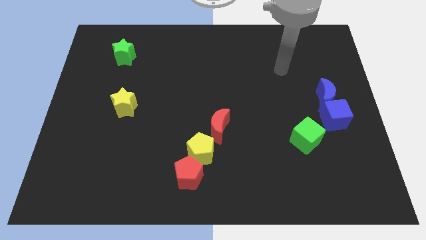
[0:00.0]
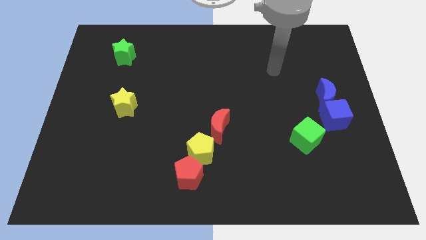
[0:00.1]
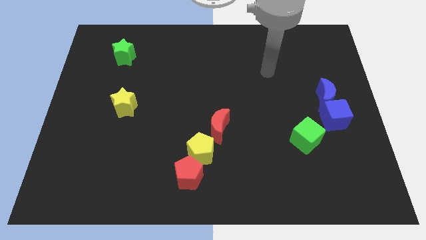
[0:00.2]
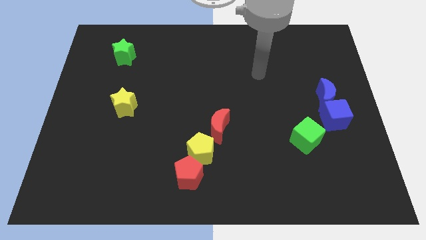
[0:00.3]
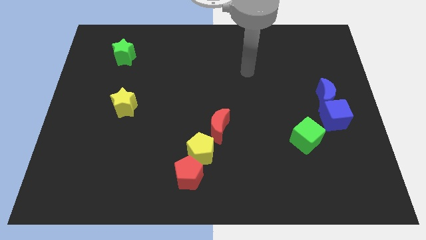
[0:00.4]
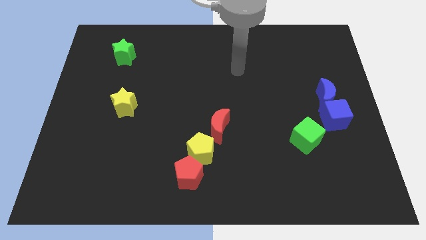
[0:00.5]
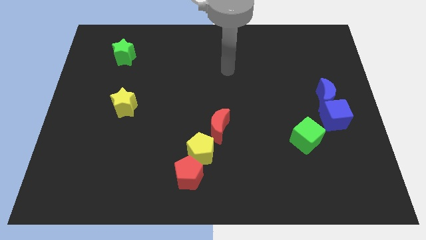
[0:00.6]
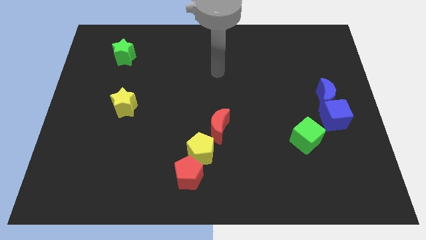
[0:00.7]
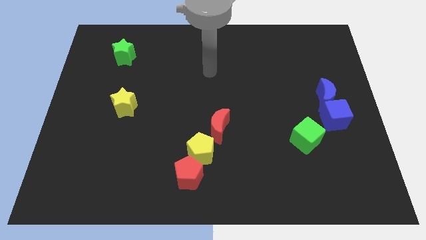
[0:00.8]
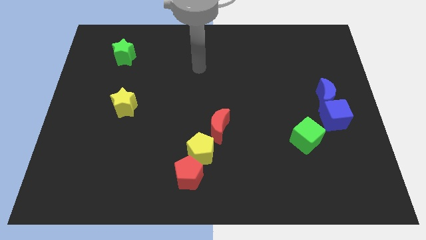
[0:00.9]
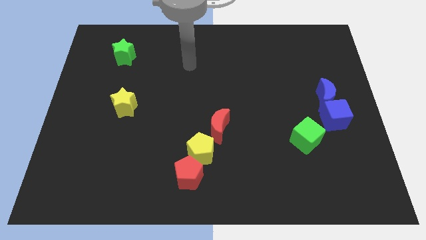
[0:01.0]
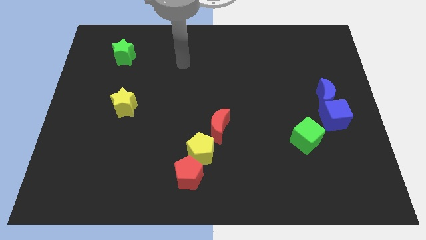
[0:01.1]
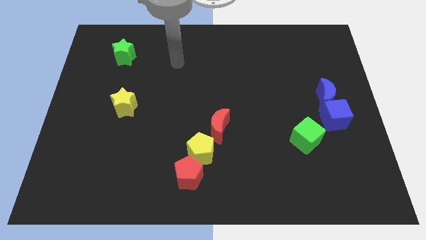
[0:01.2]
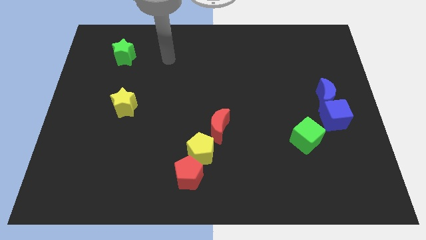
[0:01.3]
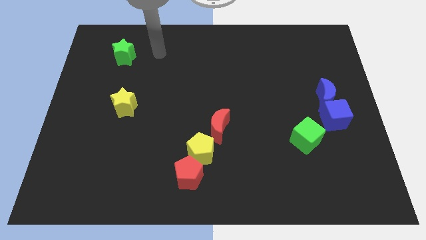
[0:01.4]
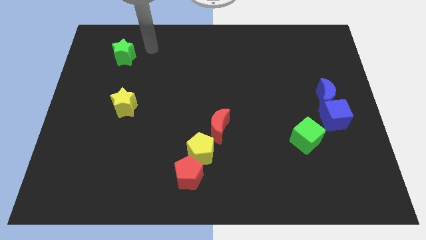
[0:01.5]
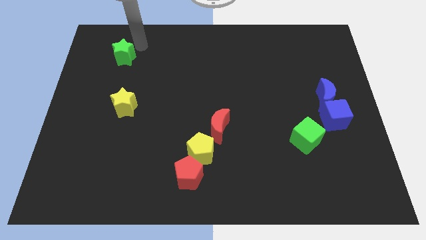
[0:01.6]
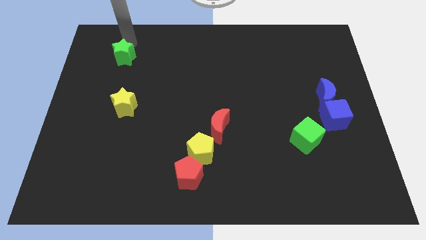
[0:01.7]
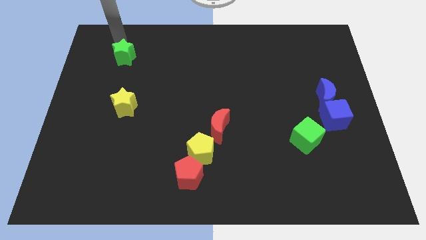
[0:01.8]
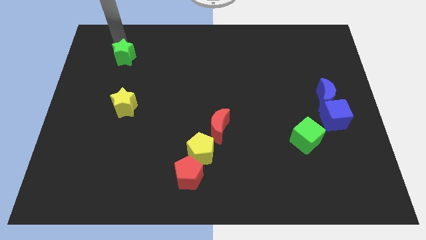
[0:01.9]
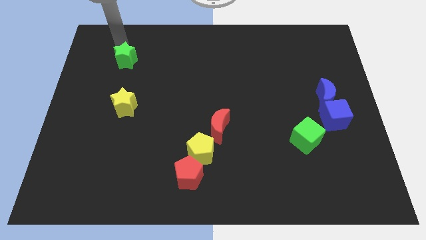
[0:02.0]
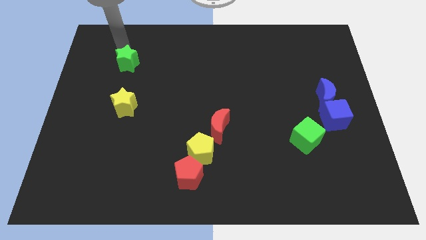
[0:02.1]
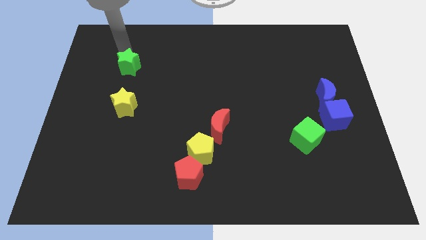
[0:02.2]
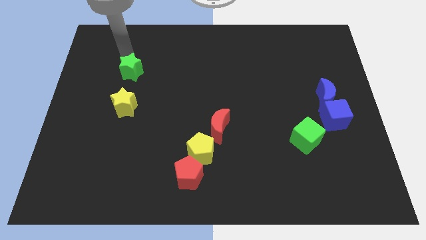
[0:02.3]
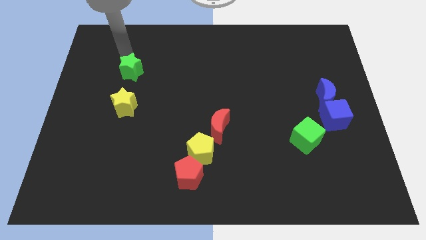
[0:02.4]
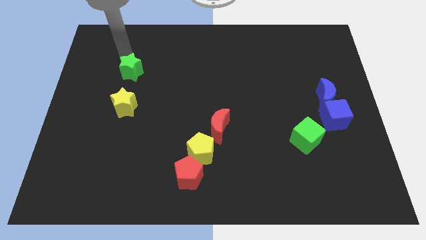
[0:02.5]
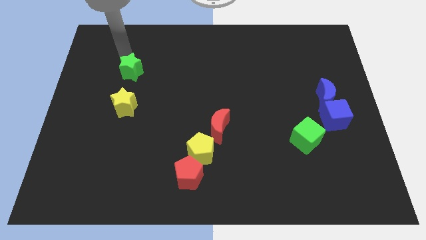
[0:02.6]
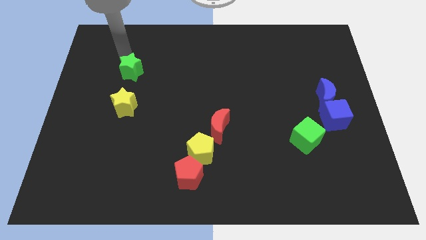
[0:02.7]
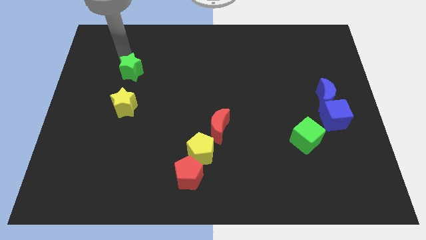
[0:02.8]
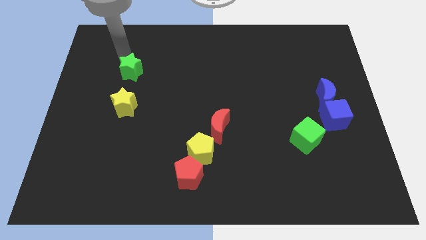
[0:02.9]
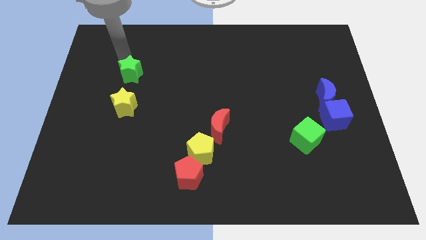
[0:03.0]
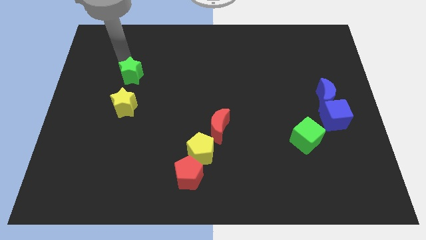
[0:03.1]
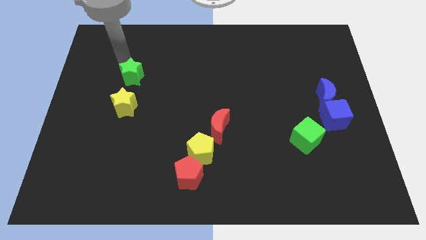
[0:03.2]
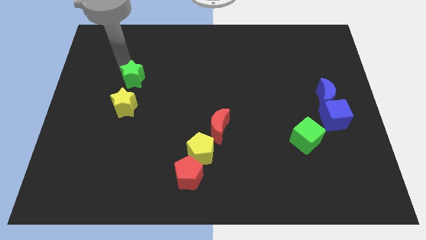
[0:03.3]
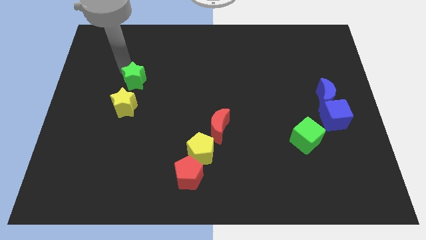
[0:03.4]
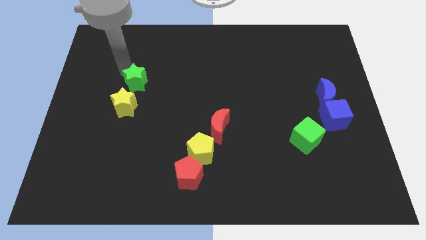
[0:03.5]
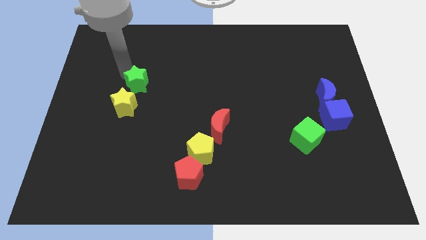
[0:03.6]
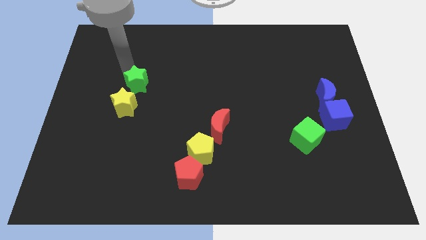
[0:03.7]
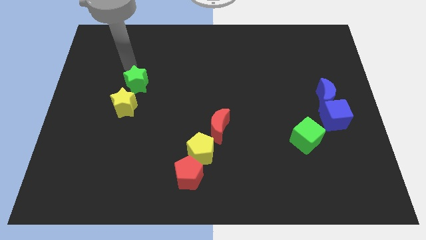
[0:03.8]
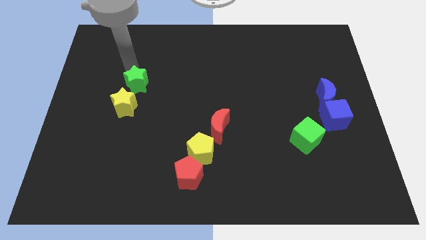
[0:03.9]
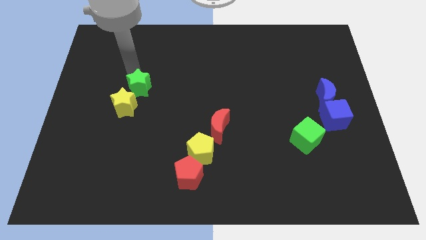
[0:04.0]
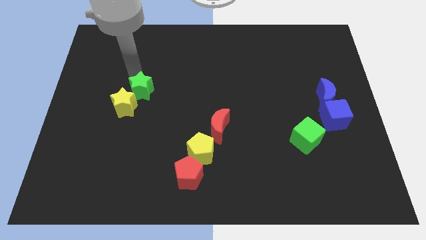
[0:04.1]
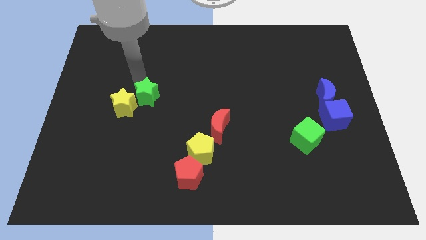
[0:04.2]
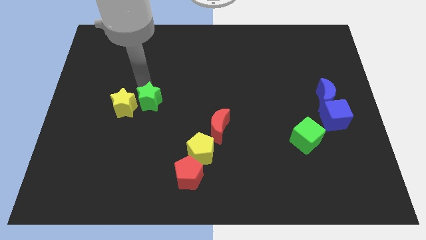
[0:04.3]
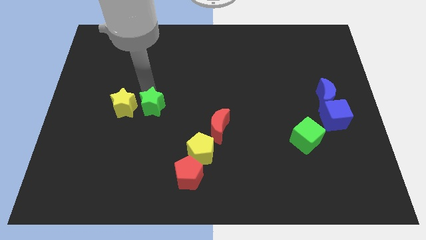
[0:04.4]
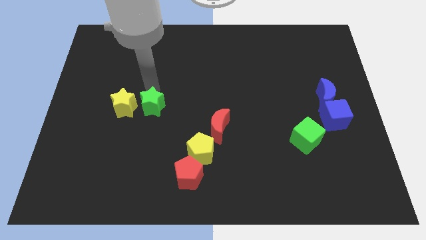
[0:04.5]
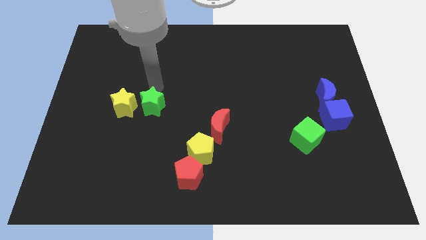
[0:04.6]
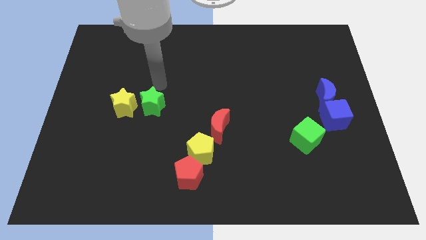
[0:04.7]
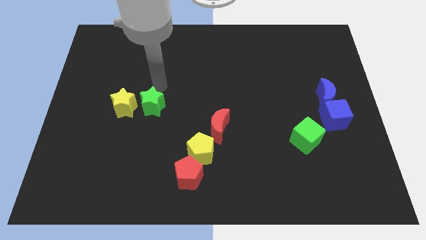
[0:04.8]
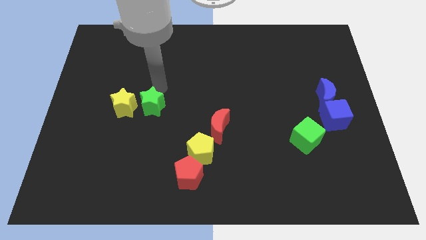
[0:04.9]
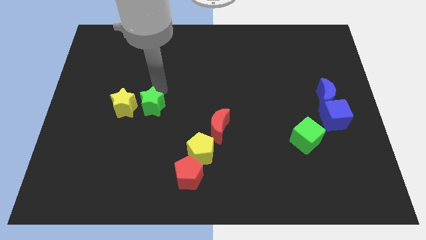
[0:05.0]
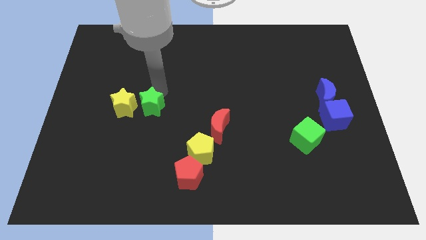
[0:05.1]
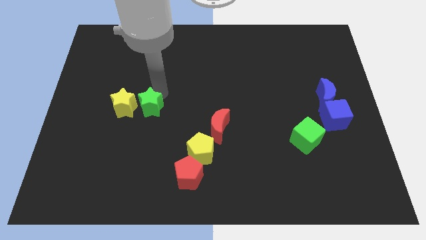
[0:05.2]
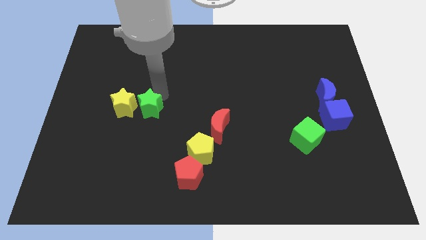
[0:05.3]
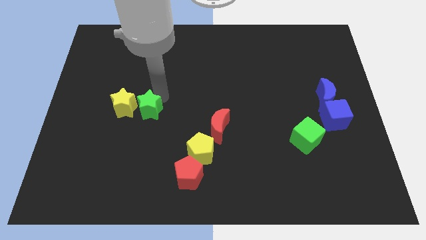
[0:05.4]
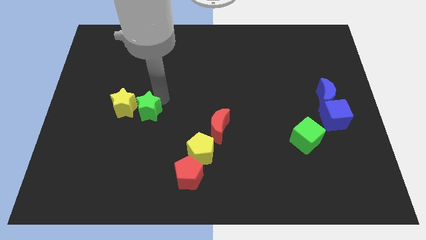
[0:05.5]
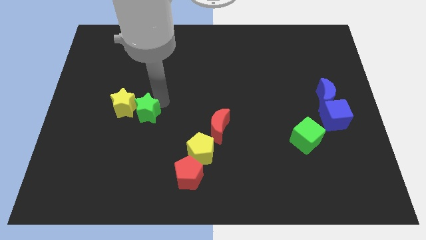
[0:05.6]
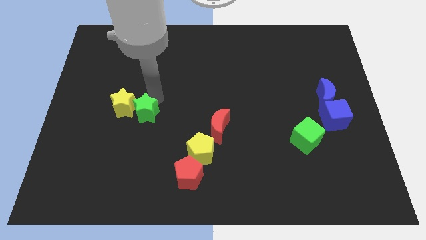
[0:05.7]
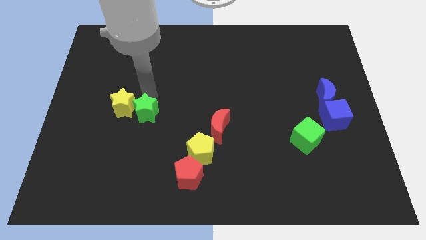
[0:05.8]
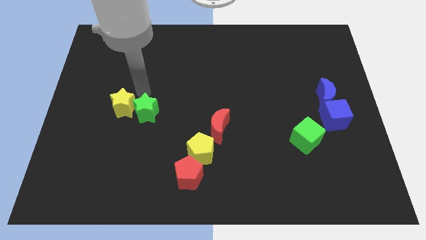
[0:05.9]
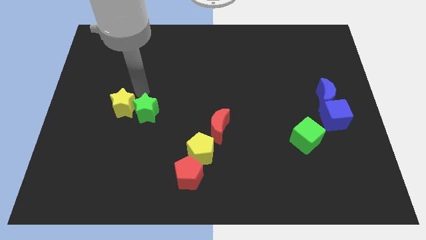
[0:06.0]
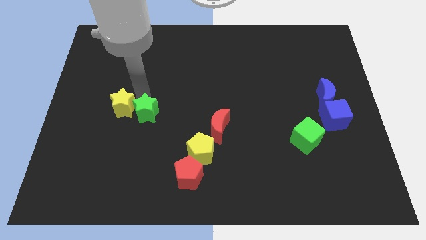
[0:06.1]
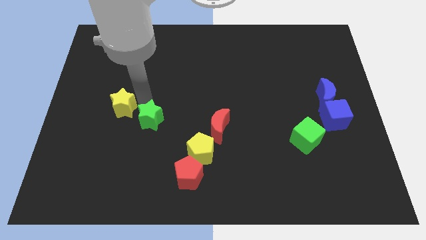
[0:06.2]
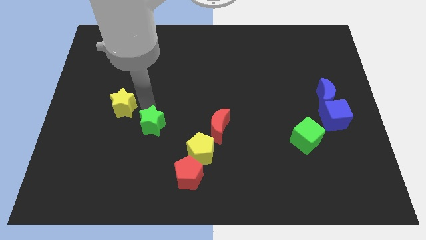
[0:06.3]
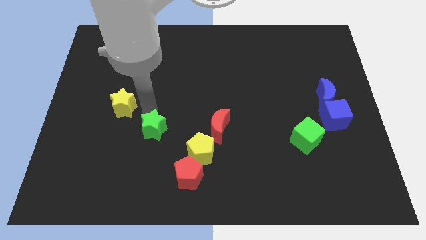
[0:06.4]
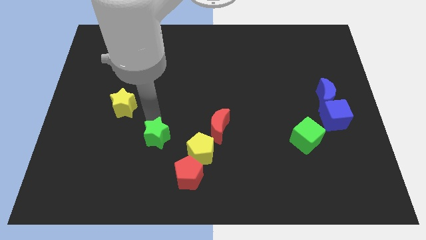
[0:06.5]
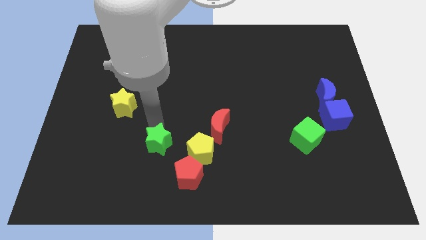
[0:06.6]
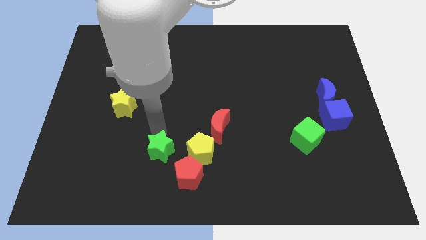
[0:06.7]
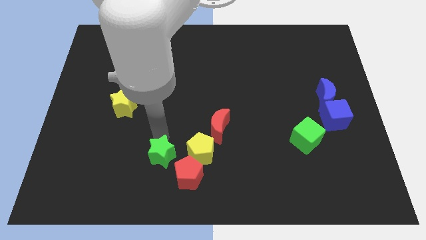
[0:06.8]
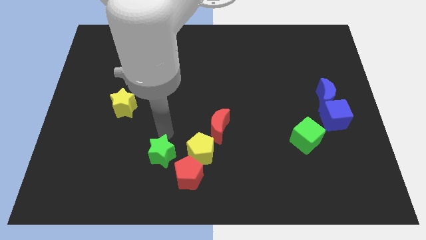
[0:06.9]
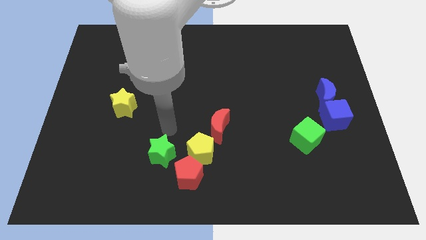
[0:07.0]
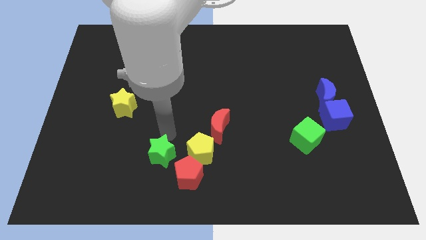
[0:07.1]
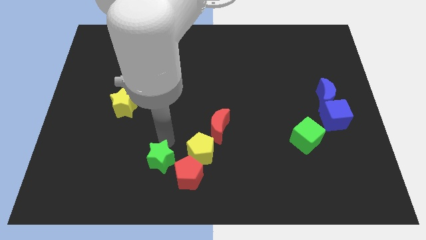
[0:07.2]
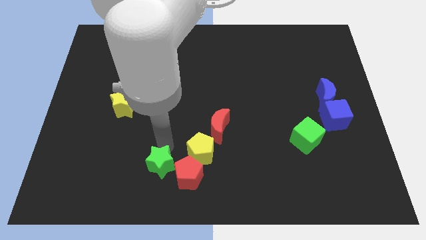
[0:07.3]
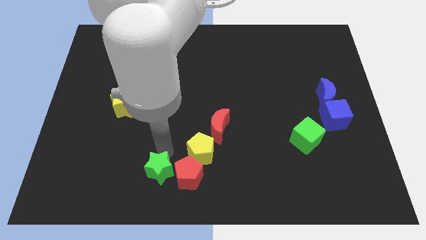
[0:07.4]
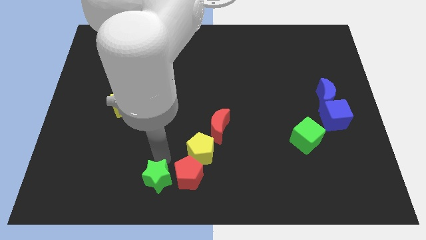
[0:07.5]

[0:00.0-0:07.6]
put the green star to the bottom side

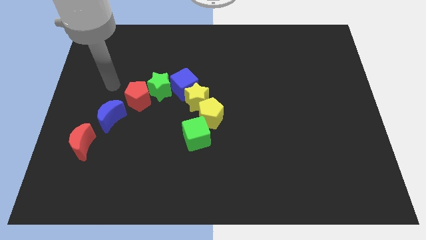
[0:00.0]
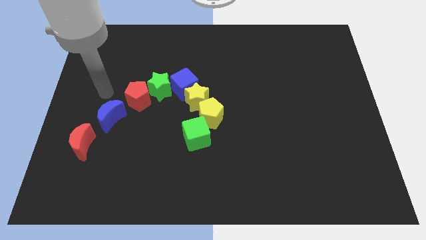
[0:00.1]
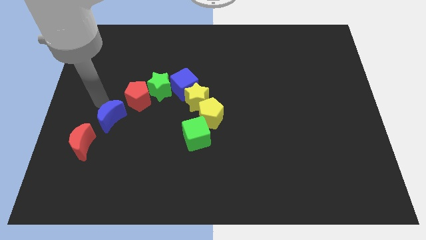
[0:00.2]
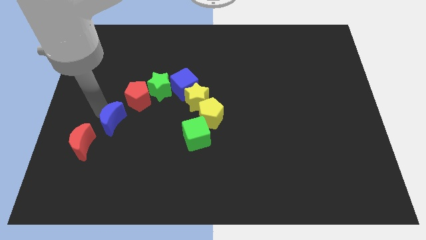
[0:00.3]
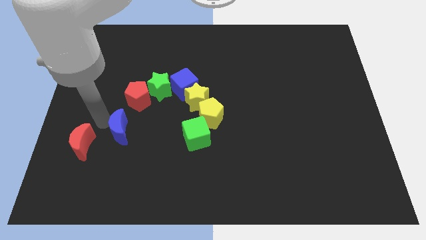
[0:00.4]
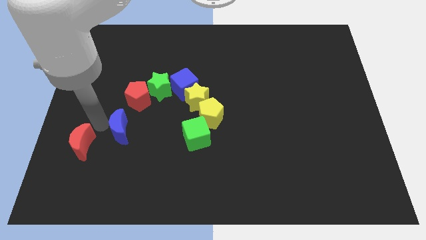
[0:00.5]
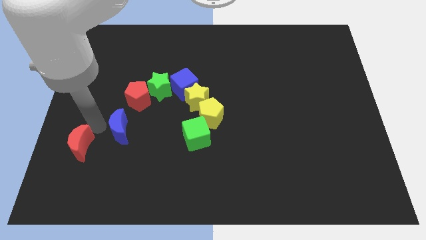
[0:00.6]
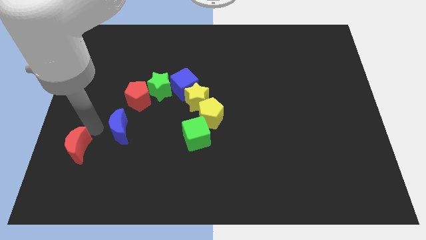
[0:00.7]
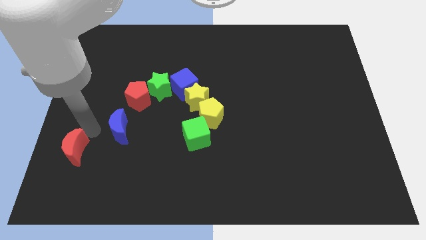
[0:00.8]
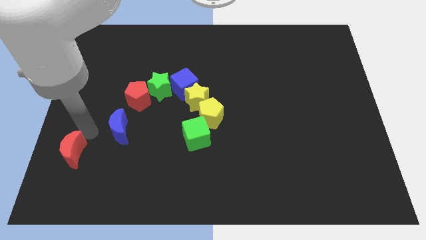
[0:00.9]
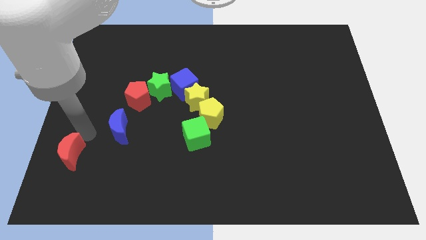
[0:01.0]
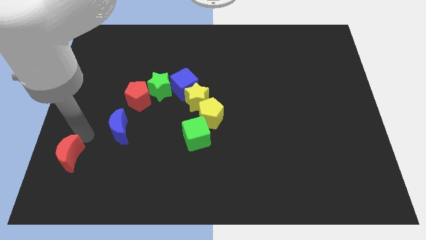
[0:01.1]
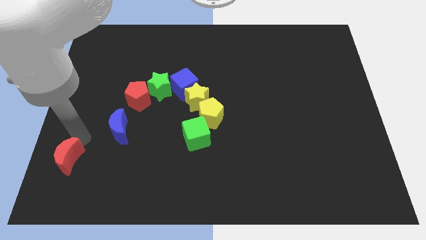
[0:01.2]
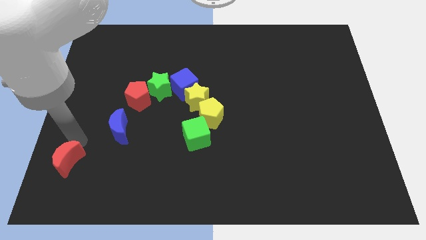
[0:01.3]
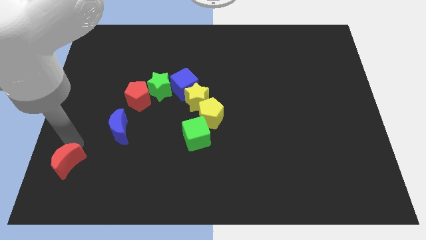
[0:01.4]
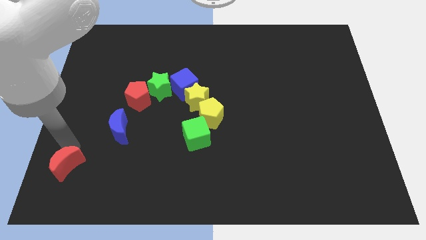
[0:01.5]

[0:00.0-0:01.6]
move the red moon to the bottom left corner
